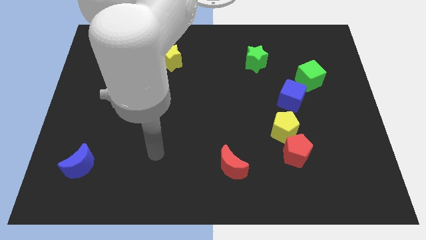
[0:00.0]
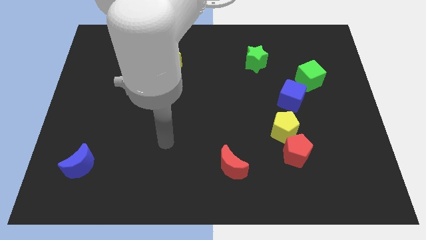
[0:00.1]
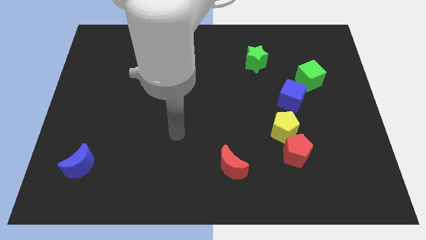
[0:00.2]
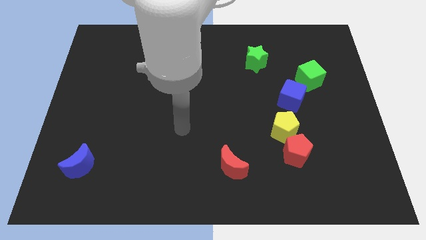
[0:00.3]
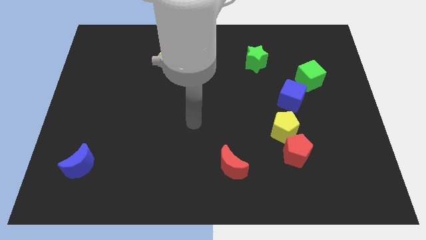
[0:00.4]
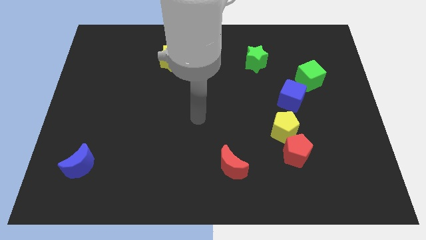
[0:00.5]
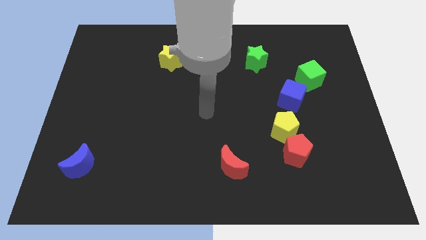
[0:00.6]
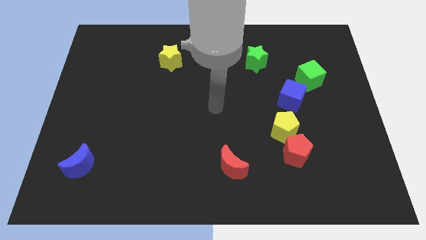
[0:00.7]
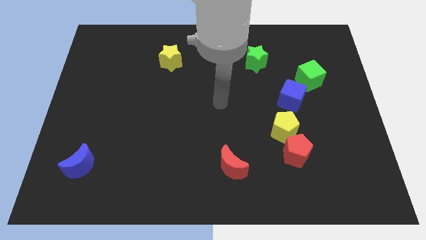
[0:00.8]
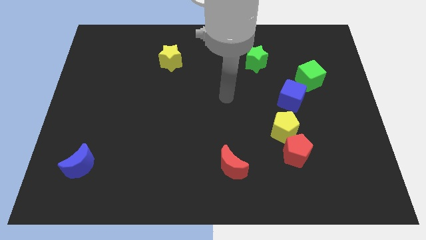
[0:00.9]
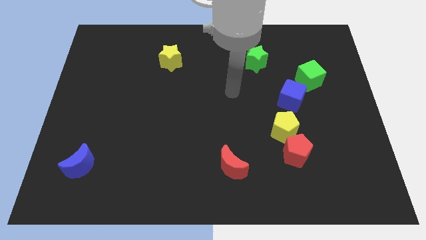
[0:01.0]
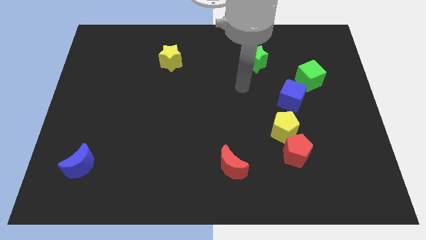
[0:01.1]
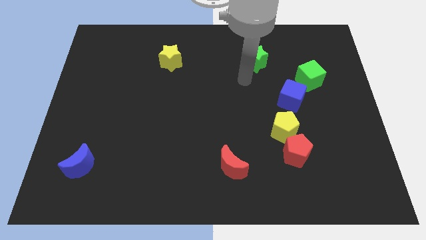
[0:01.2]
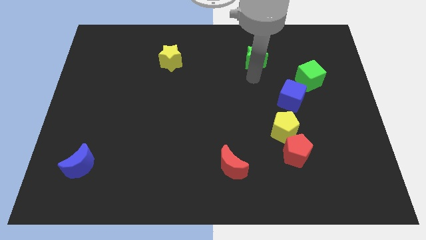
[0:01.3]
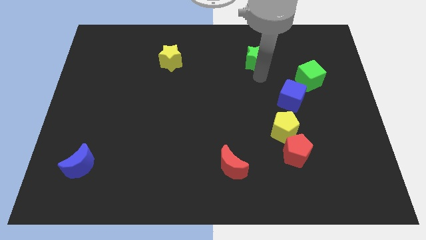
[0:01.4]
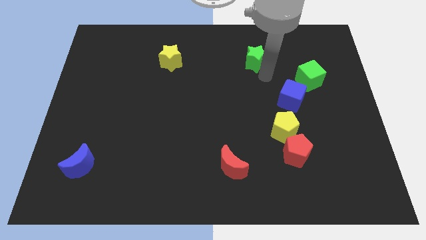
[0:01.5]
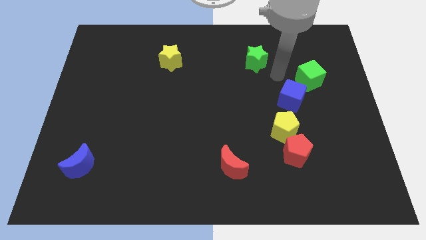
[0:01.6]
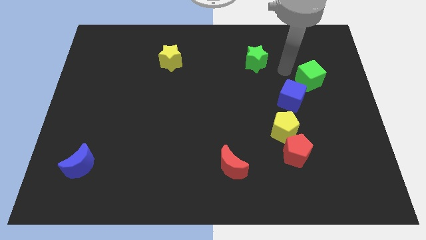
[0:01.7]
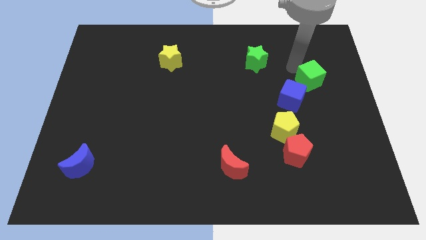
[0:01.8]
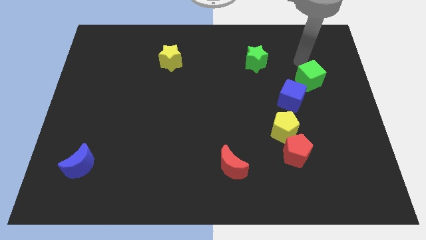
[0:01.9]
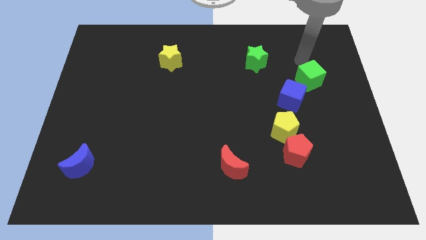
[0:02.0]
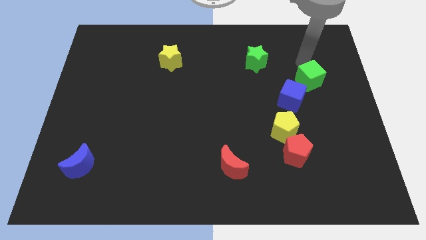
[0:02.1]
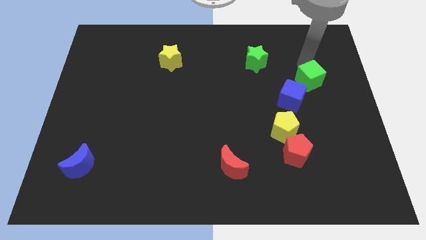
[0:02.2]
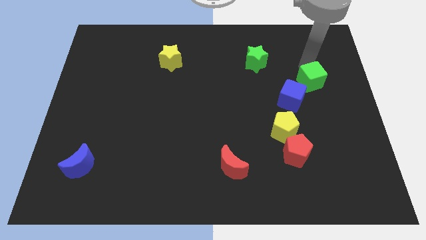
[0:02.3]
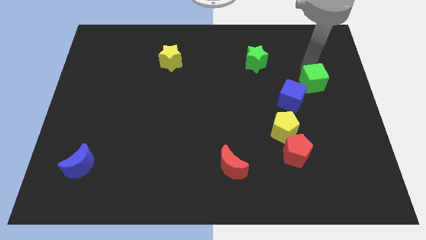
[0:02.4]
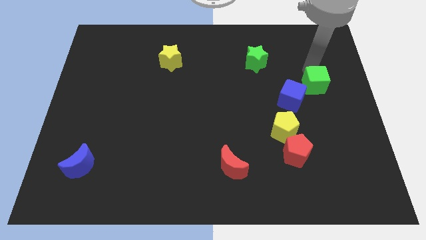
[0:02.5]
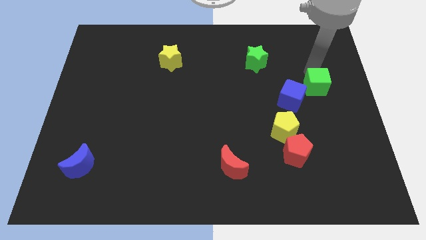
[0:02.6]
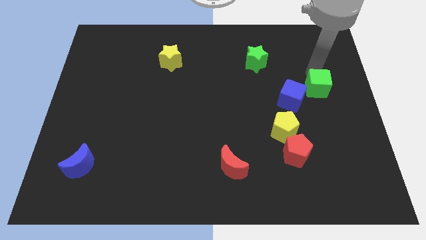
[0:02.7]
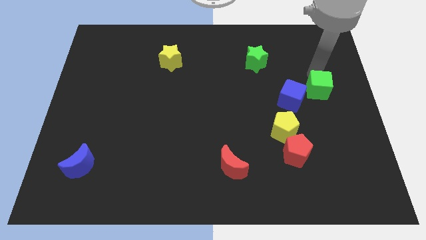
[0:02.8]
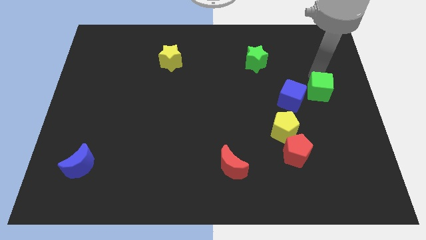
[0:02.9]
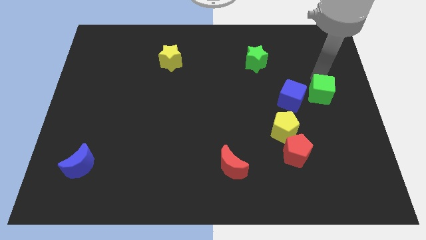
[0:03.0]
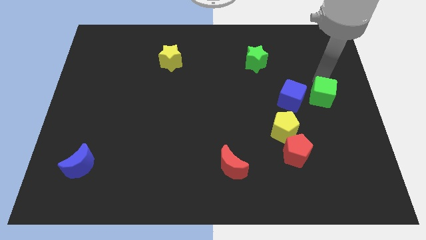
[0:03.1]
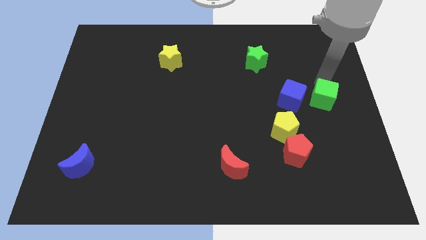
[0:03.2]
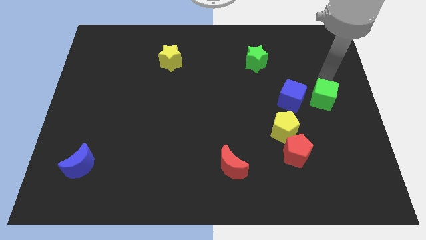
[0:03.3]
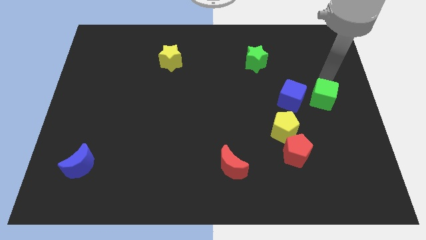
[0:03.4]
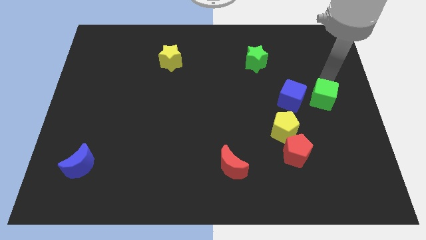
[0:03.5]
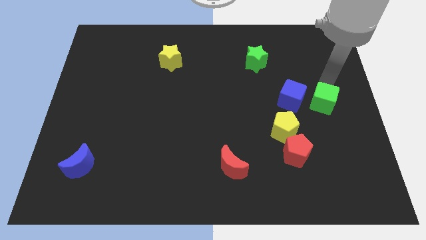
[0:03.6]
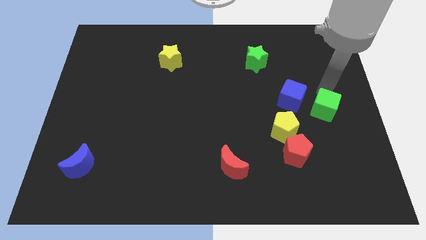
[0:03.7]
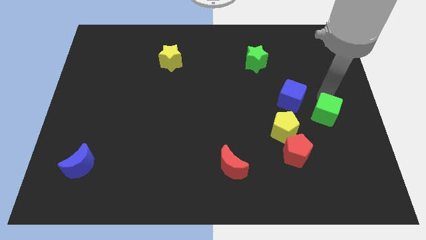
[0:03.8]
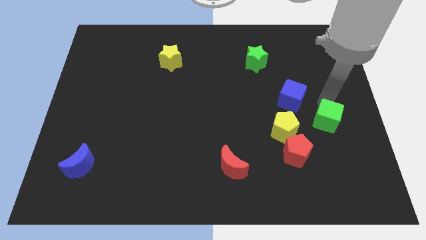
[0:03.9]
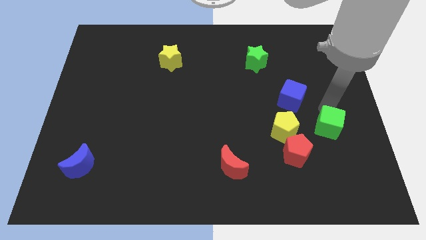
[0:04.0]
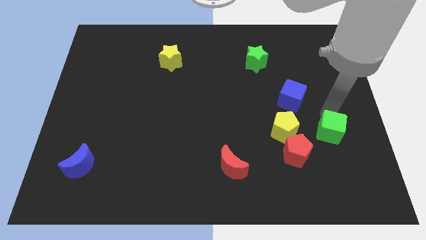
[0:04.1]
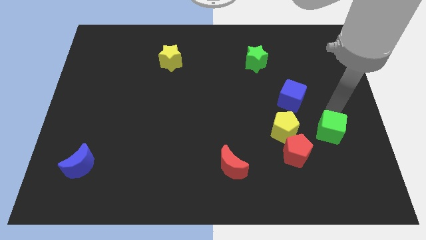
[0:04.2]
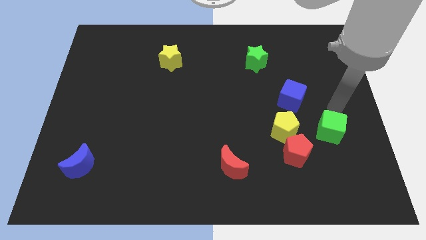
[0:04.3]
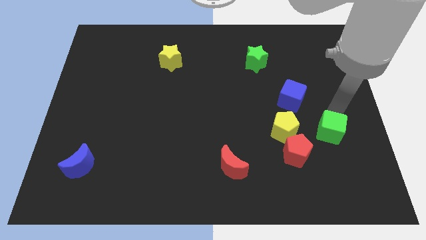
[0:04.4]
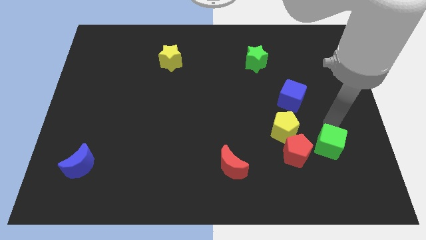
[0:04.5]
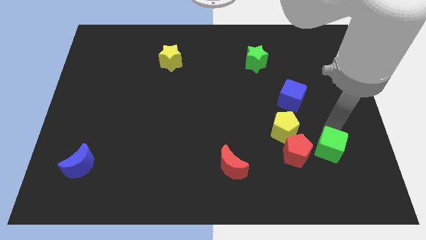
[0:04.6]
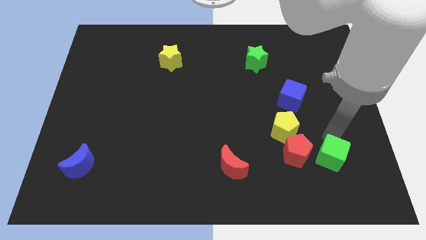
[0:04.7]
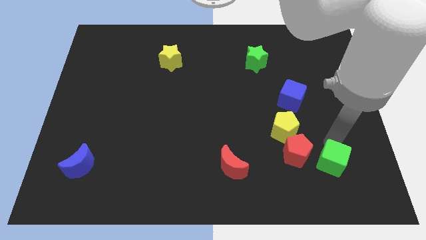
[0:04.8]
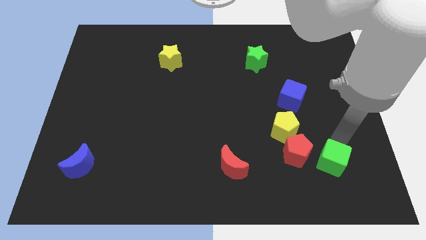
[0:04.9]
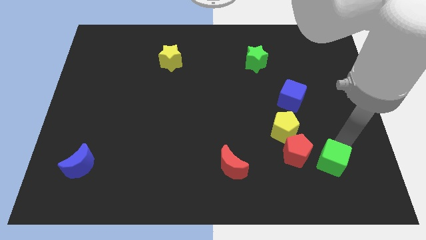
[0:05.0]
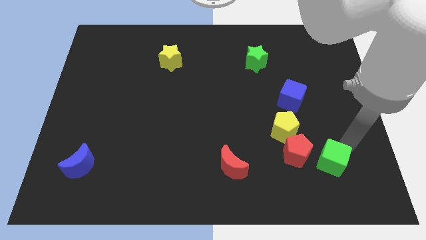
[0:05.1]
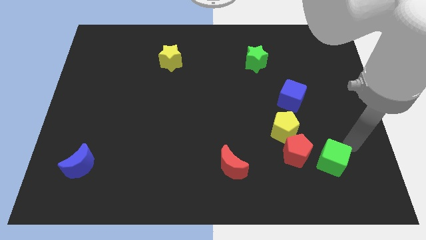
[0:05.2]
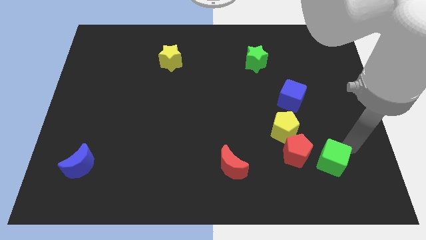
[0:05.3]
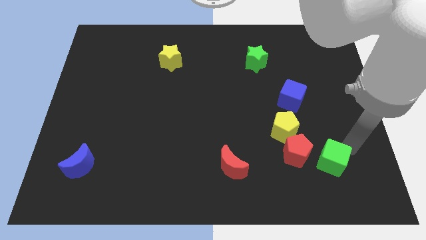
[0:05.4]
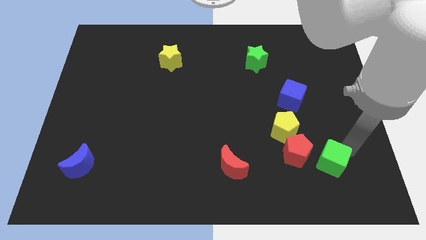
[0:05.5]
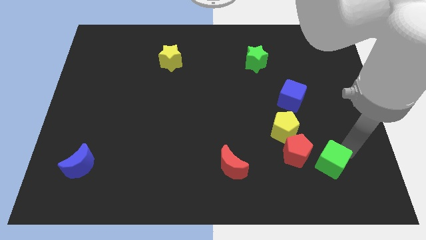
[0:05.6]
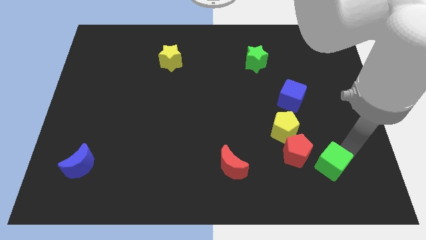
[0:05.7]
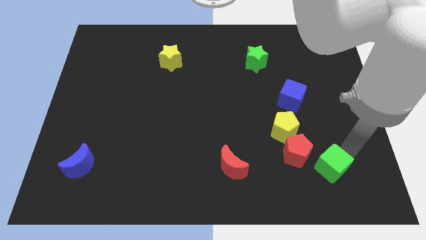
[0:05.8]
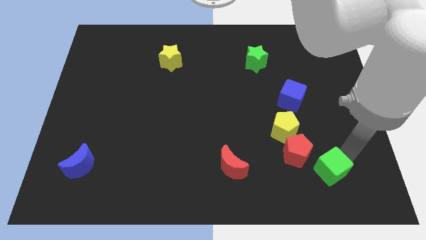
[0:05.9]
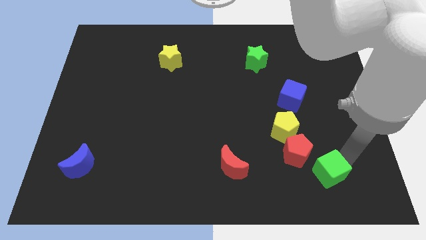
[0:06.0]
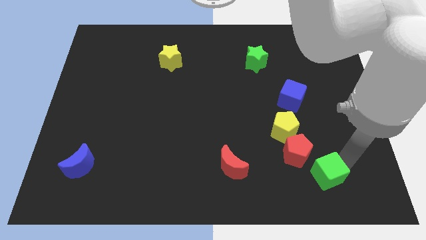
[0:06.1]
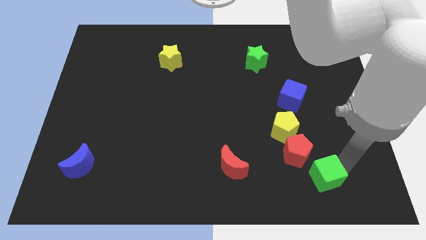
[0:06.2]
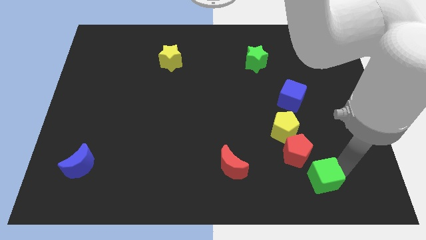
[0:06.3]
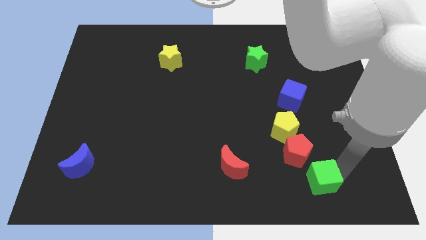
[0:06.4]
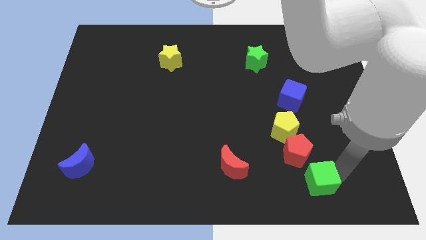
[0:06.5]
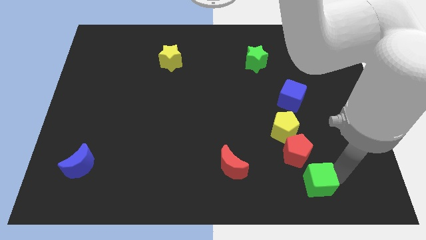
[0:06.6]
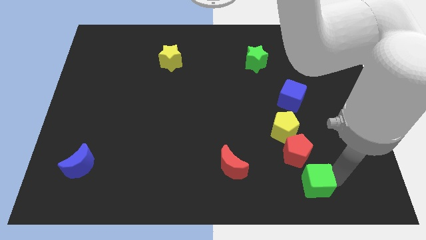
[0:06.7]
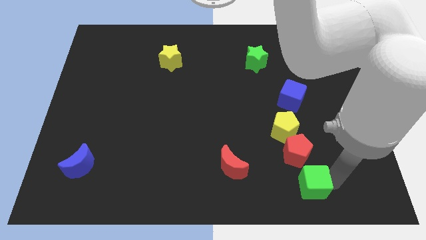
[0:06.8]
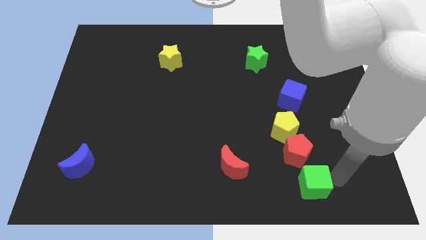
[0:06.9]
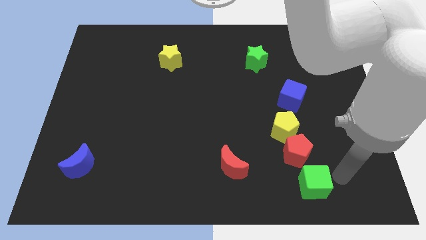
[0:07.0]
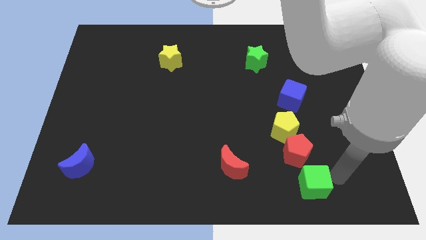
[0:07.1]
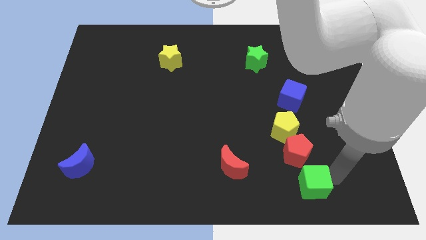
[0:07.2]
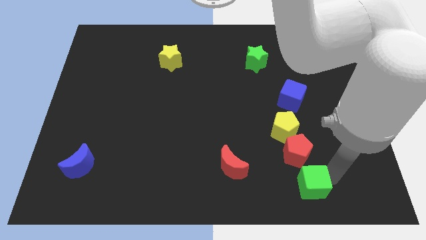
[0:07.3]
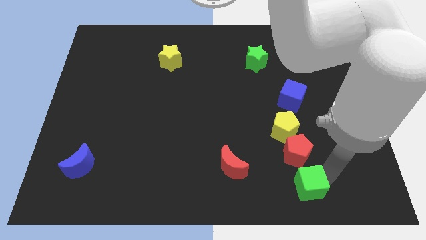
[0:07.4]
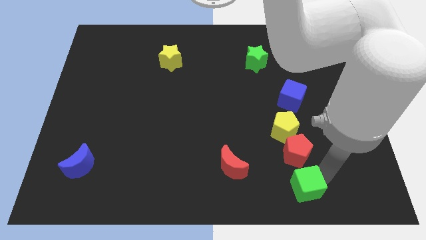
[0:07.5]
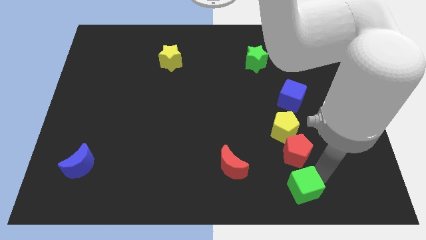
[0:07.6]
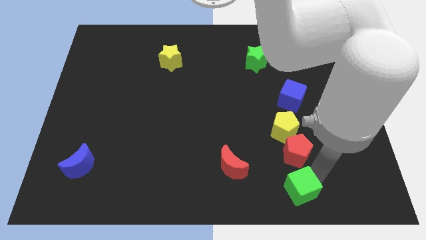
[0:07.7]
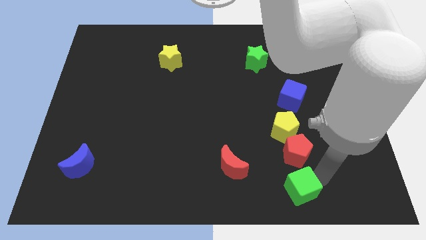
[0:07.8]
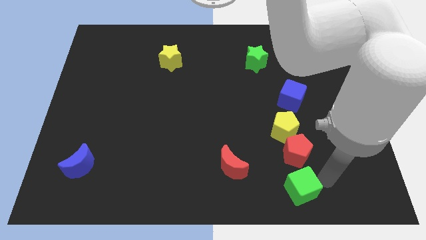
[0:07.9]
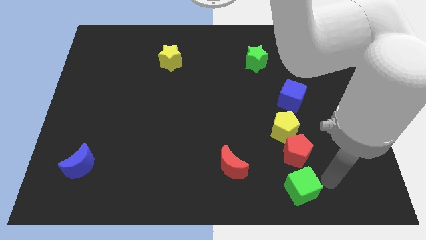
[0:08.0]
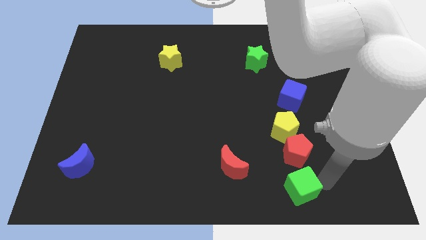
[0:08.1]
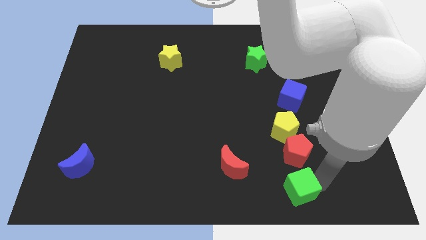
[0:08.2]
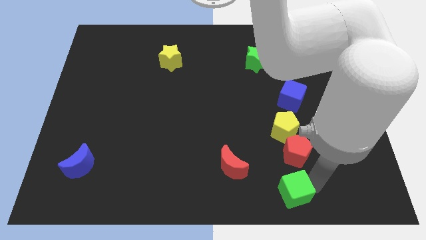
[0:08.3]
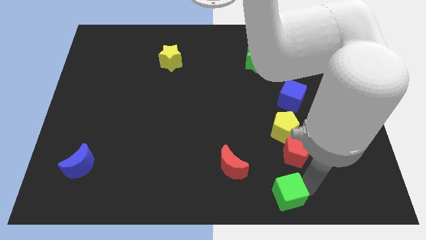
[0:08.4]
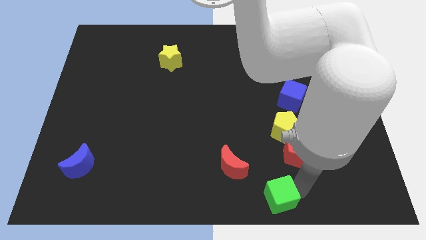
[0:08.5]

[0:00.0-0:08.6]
put the green cube to the bottom side
